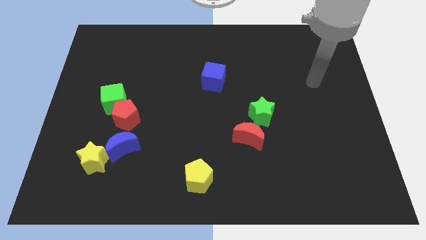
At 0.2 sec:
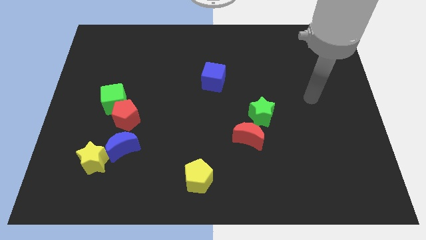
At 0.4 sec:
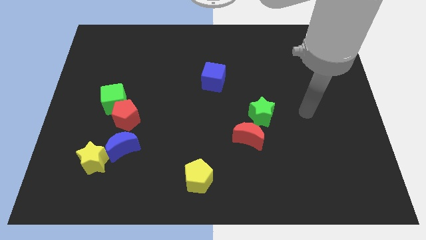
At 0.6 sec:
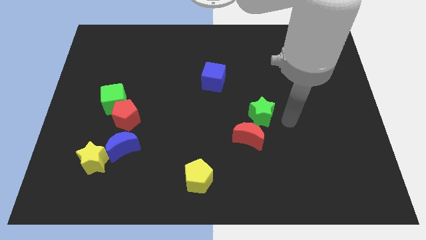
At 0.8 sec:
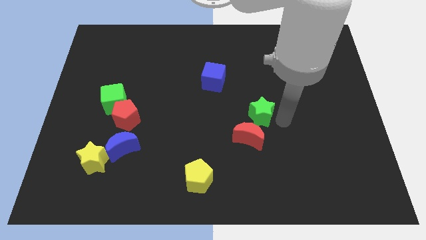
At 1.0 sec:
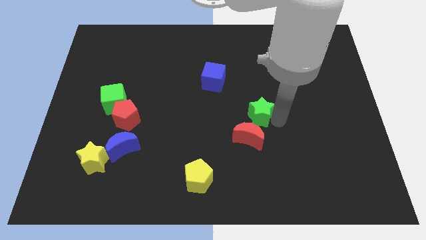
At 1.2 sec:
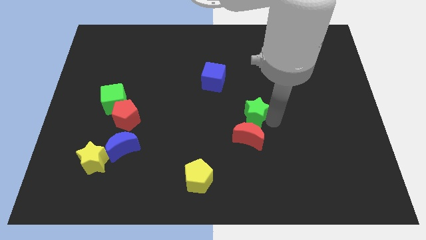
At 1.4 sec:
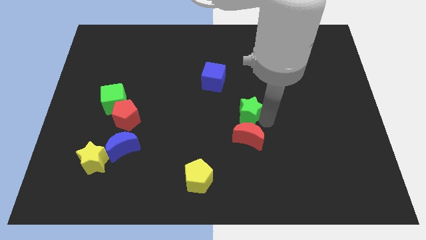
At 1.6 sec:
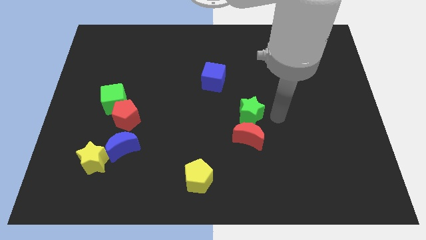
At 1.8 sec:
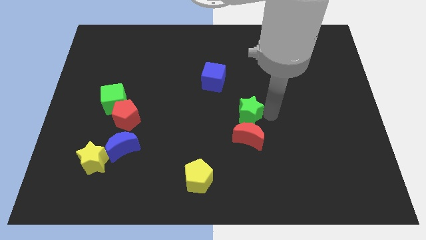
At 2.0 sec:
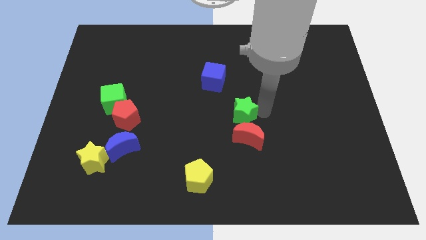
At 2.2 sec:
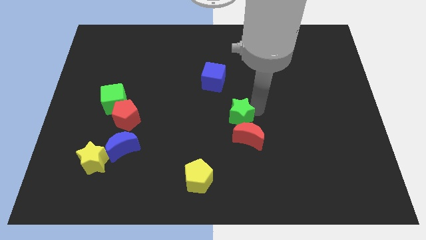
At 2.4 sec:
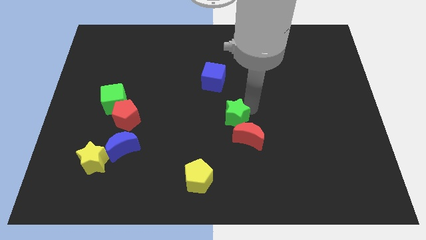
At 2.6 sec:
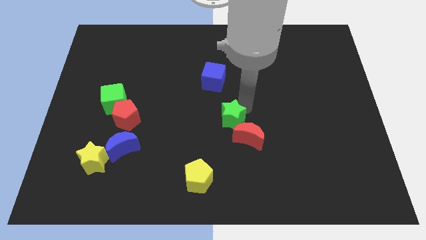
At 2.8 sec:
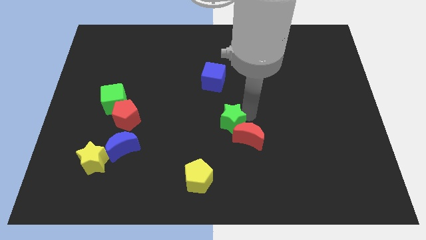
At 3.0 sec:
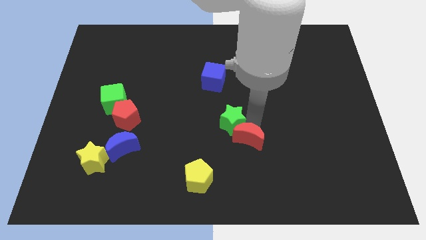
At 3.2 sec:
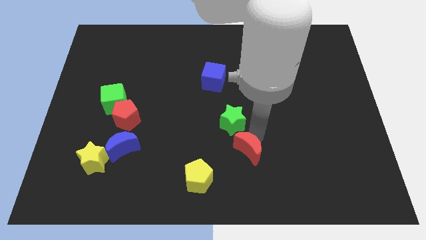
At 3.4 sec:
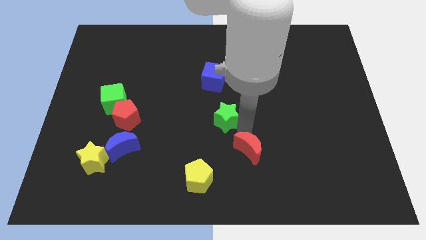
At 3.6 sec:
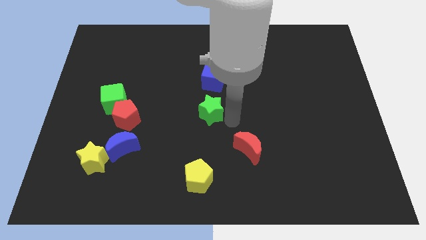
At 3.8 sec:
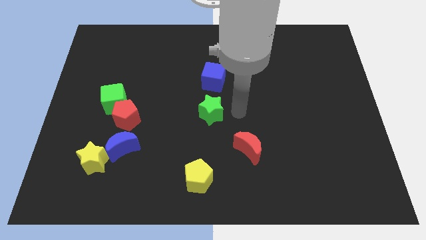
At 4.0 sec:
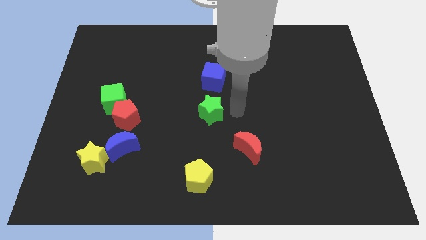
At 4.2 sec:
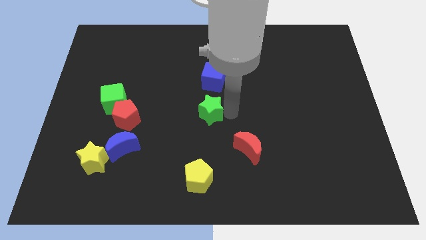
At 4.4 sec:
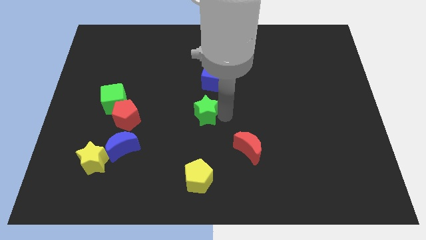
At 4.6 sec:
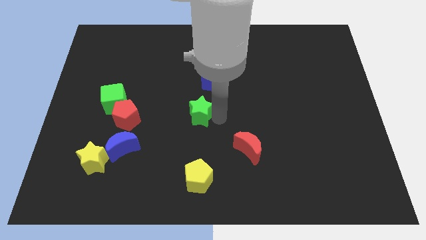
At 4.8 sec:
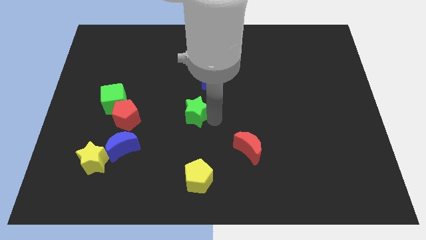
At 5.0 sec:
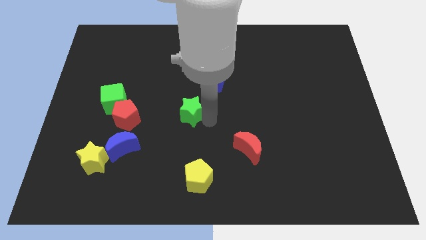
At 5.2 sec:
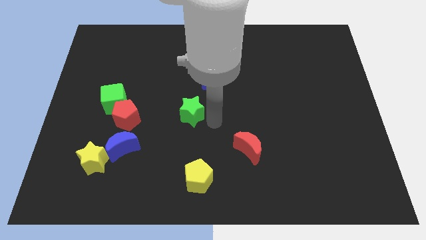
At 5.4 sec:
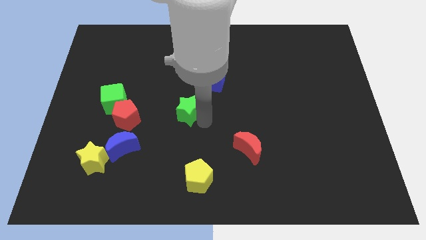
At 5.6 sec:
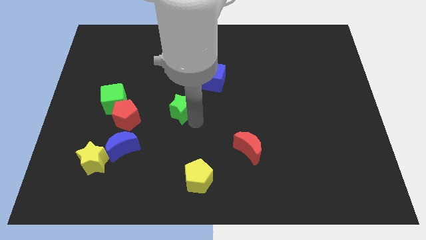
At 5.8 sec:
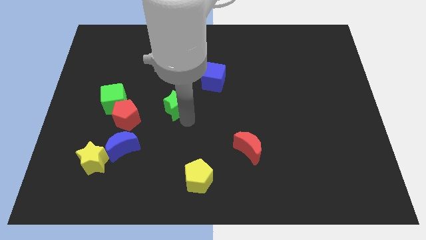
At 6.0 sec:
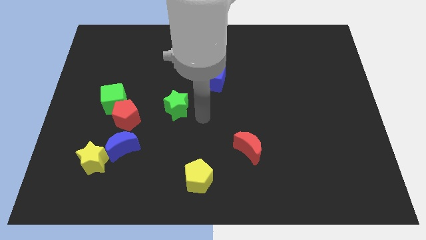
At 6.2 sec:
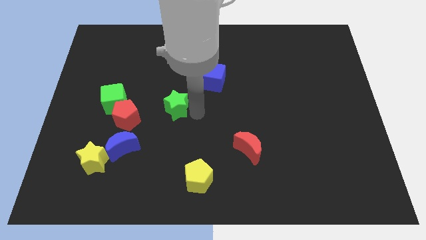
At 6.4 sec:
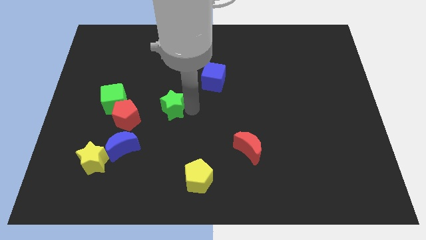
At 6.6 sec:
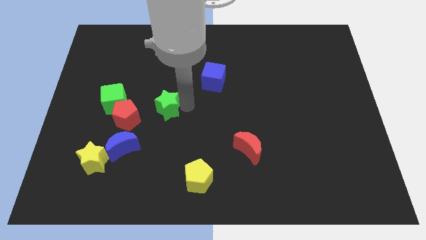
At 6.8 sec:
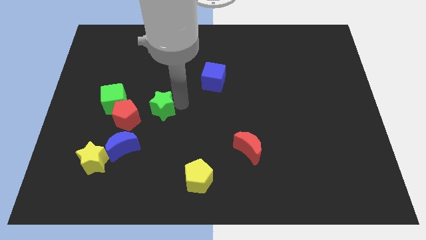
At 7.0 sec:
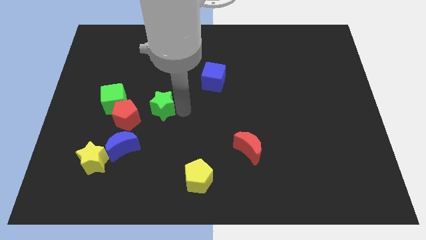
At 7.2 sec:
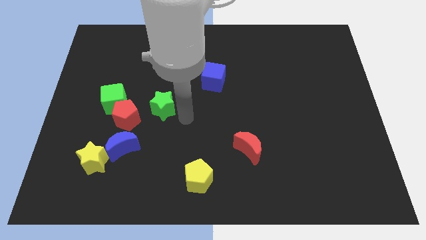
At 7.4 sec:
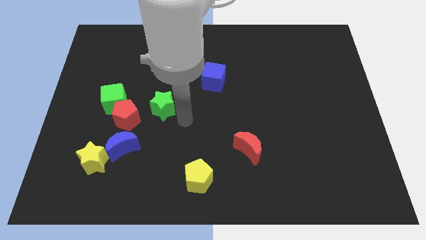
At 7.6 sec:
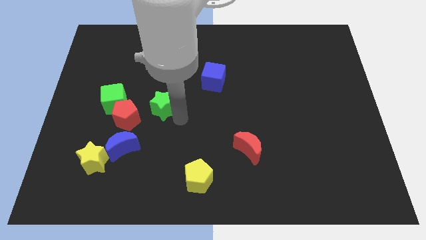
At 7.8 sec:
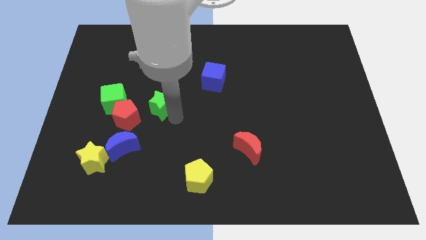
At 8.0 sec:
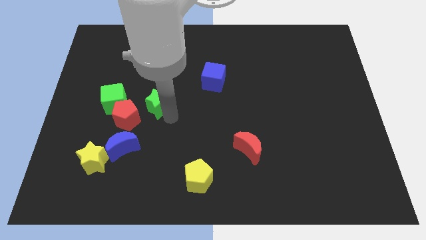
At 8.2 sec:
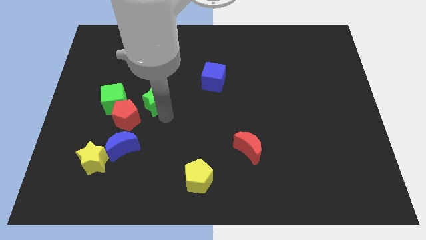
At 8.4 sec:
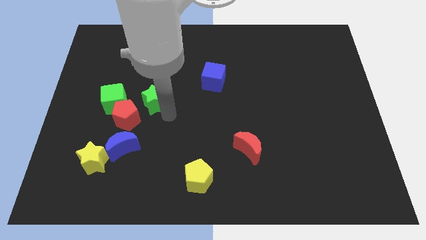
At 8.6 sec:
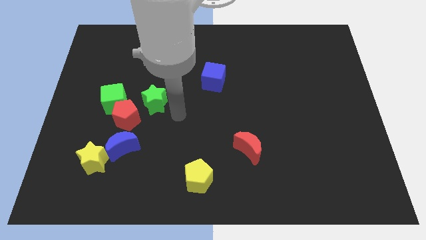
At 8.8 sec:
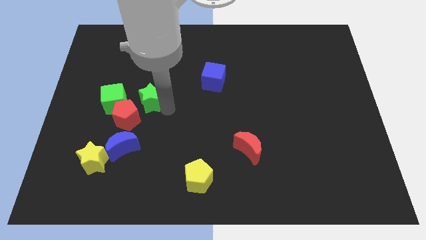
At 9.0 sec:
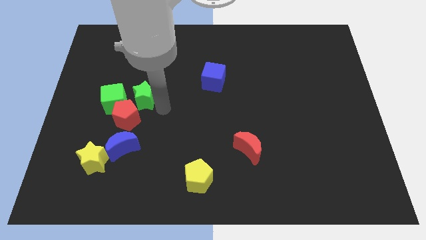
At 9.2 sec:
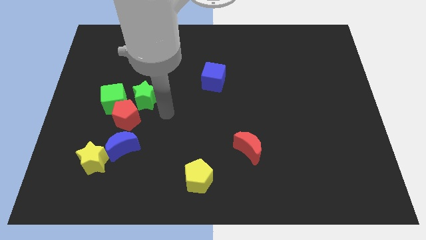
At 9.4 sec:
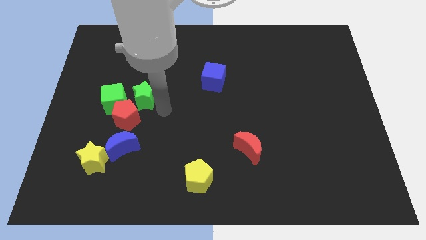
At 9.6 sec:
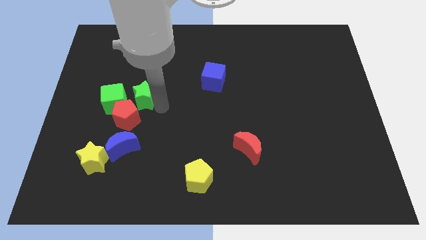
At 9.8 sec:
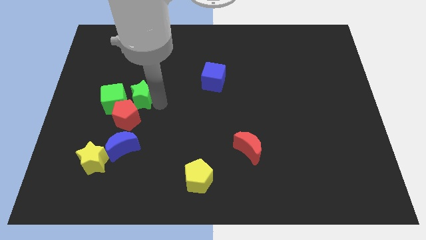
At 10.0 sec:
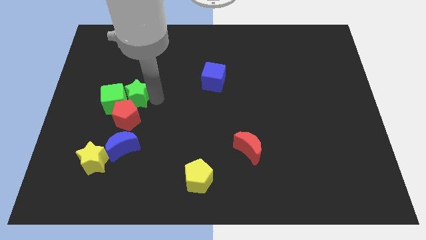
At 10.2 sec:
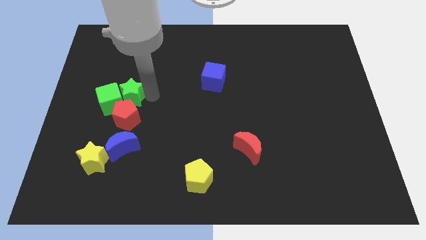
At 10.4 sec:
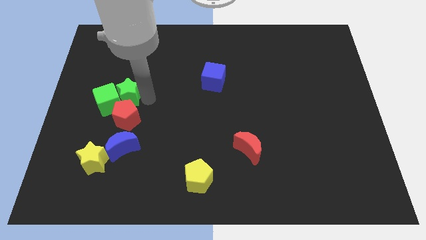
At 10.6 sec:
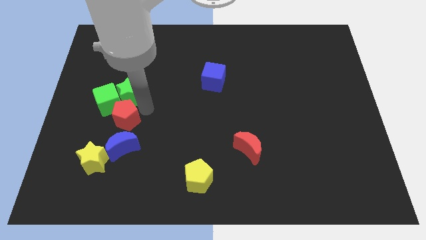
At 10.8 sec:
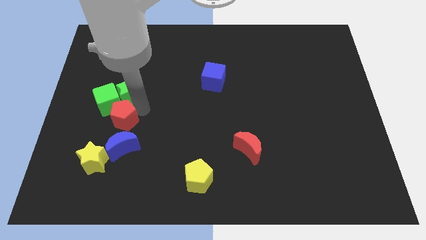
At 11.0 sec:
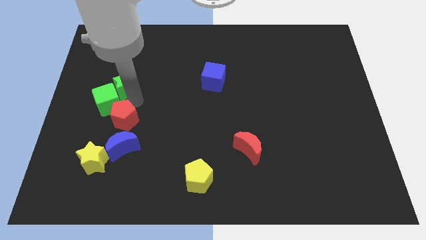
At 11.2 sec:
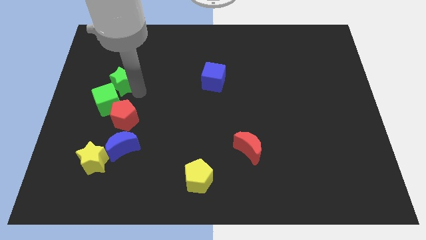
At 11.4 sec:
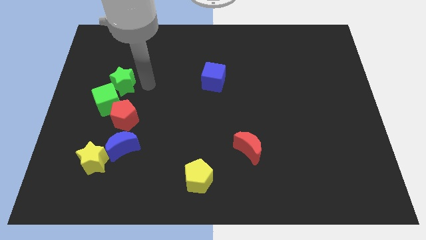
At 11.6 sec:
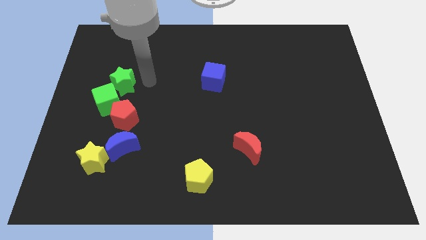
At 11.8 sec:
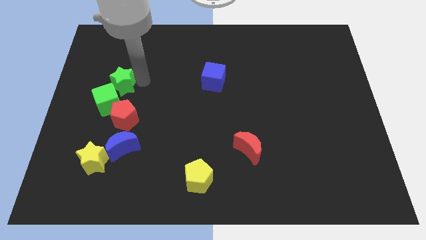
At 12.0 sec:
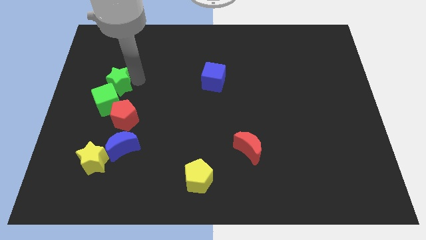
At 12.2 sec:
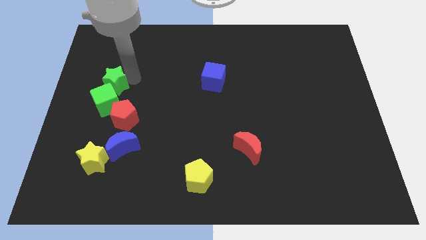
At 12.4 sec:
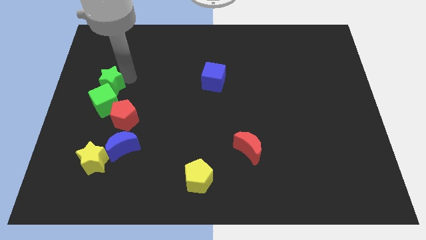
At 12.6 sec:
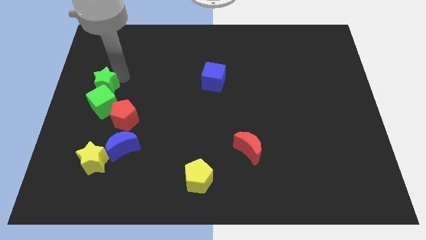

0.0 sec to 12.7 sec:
move the green star to the left side

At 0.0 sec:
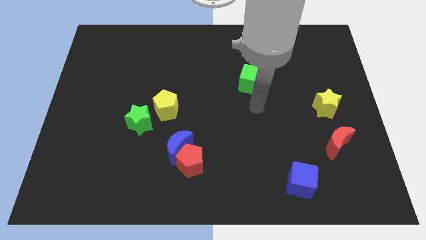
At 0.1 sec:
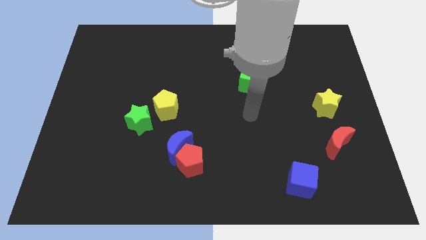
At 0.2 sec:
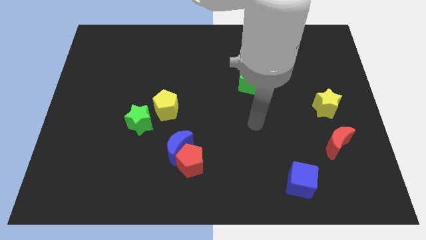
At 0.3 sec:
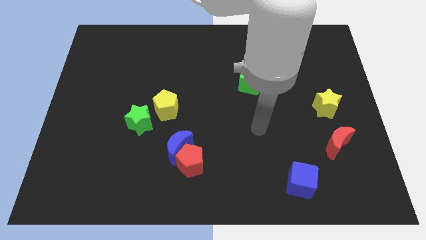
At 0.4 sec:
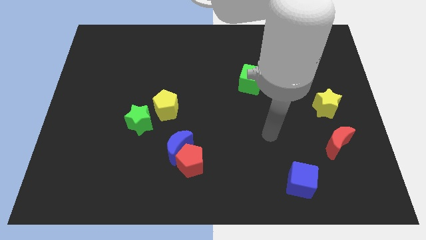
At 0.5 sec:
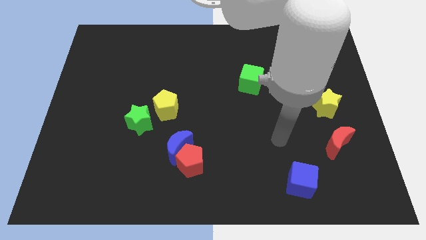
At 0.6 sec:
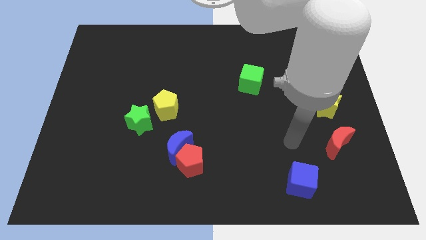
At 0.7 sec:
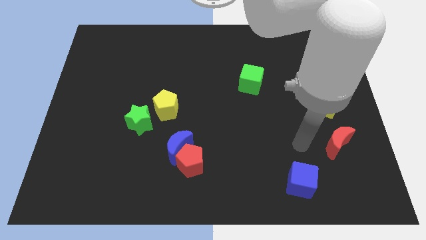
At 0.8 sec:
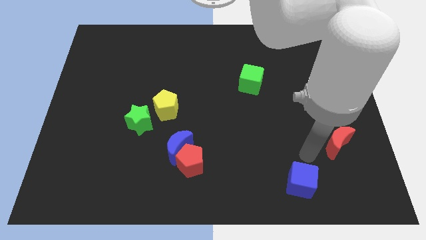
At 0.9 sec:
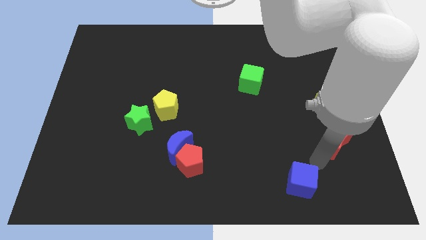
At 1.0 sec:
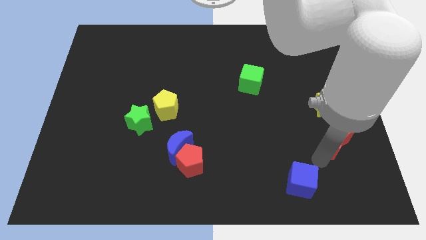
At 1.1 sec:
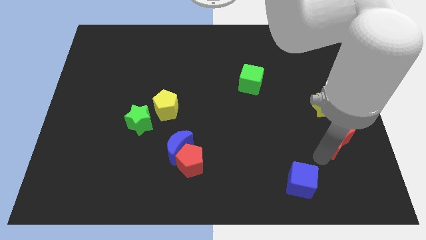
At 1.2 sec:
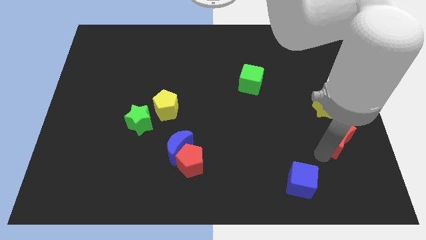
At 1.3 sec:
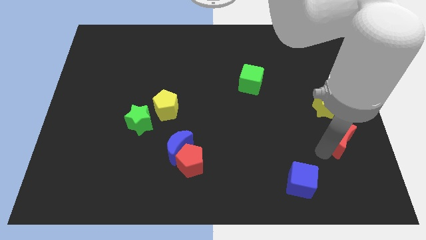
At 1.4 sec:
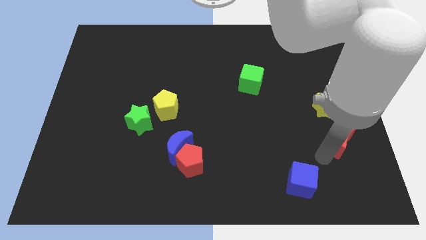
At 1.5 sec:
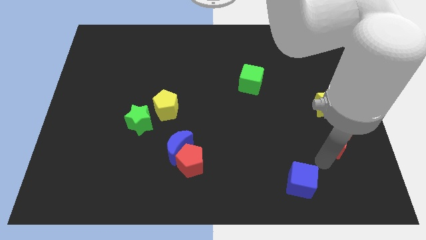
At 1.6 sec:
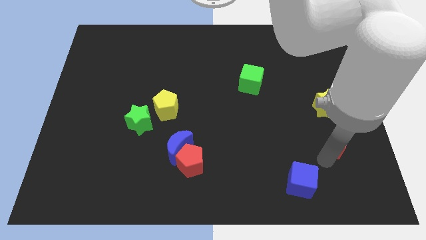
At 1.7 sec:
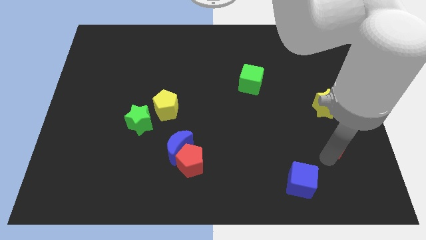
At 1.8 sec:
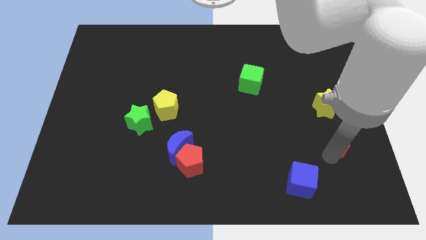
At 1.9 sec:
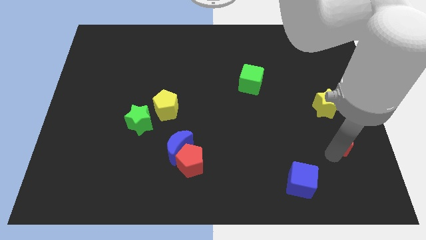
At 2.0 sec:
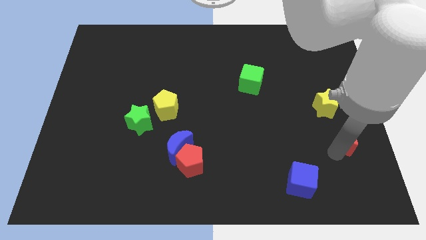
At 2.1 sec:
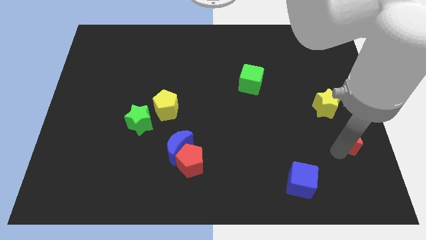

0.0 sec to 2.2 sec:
move the red moon to the center right
